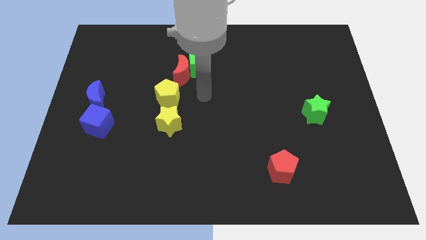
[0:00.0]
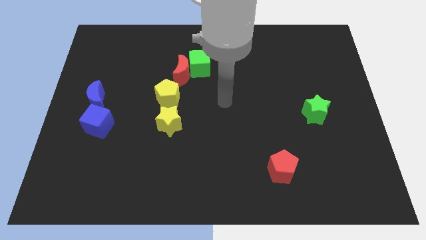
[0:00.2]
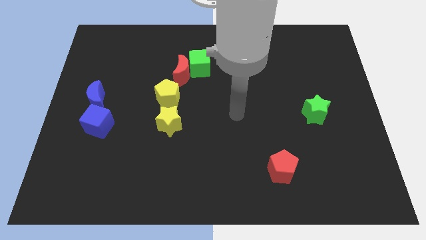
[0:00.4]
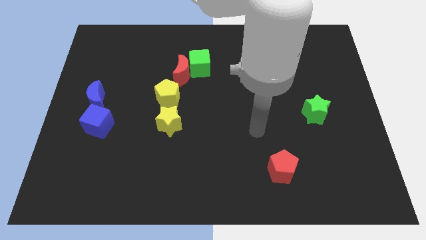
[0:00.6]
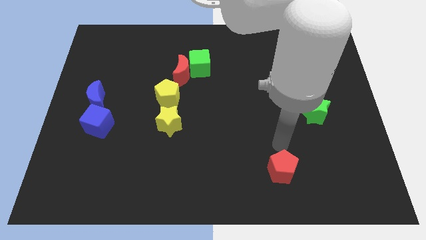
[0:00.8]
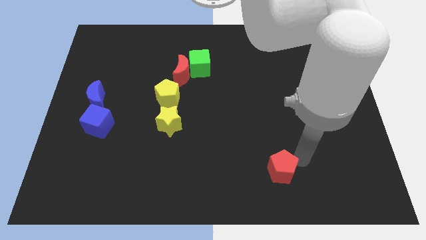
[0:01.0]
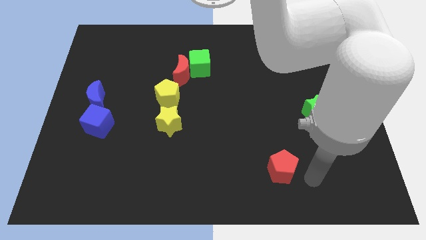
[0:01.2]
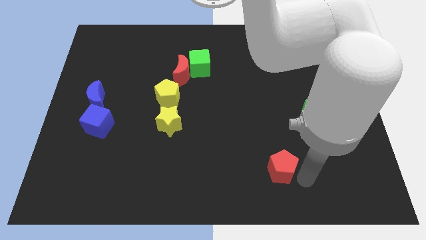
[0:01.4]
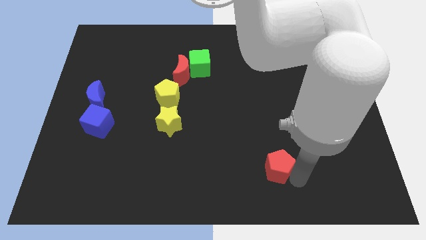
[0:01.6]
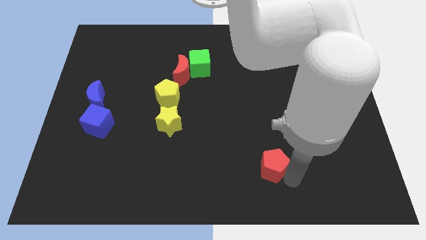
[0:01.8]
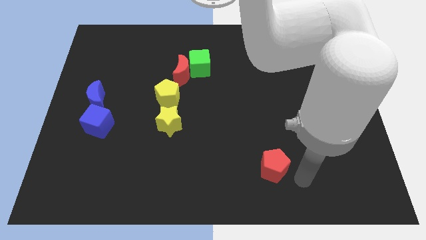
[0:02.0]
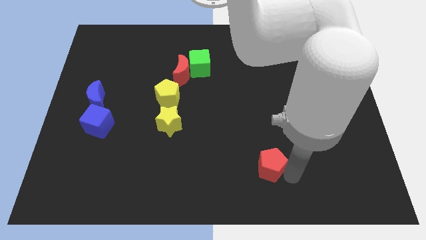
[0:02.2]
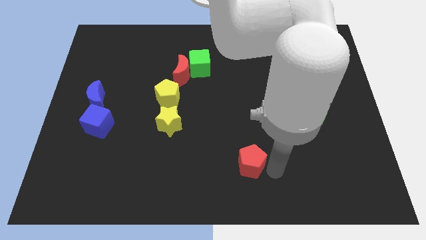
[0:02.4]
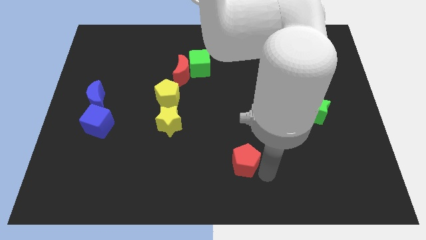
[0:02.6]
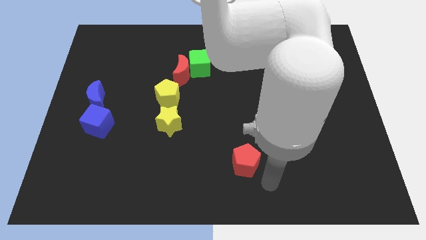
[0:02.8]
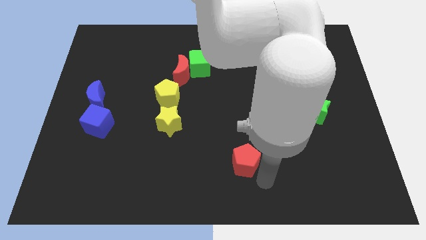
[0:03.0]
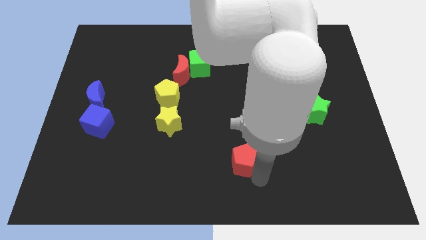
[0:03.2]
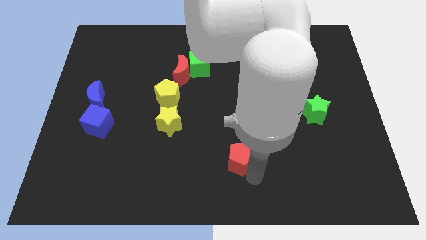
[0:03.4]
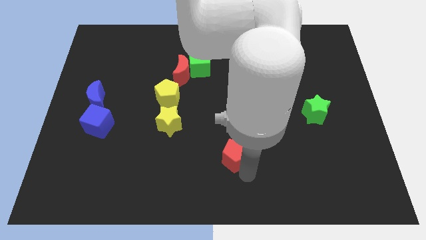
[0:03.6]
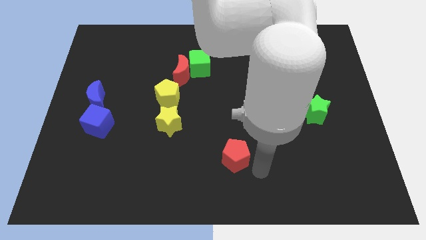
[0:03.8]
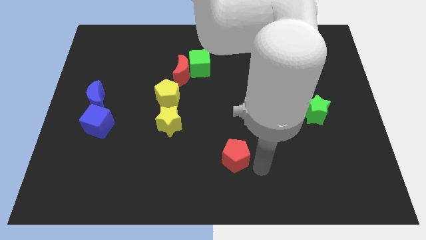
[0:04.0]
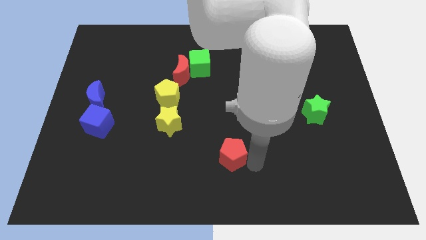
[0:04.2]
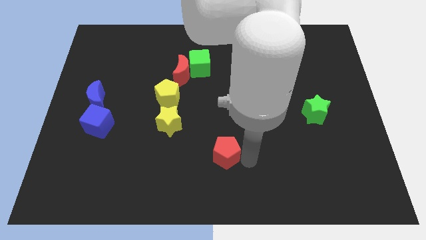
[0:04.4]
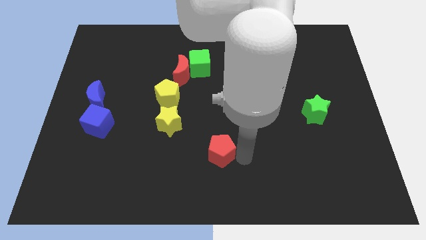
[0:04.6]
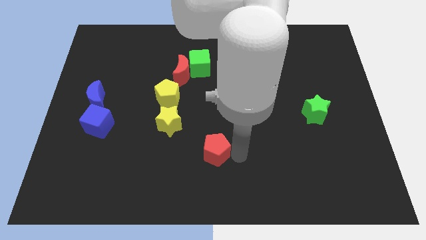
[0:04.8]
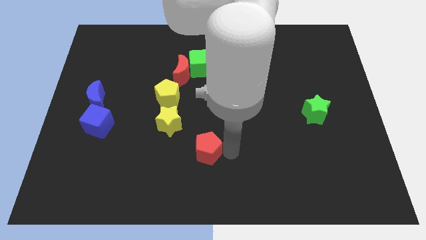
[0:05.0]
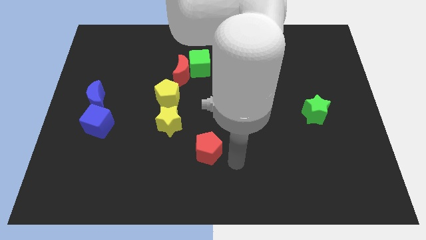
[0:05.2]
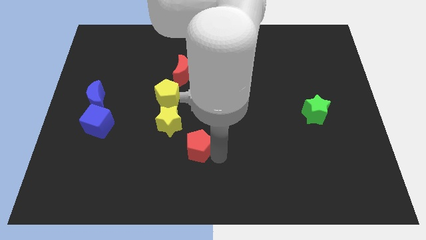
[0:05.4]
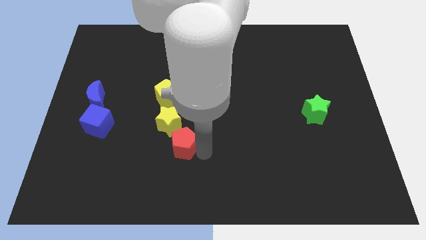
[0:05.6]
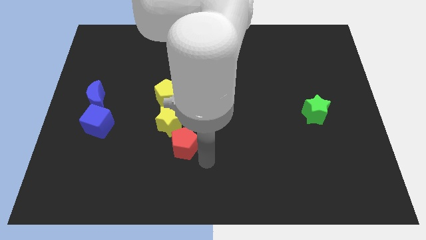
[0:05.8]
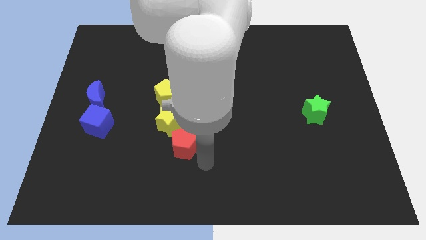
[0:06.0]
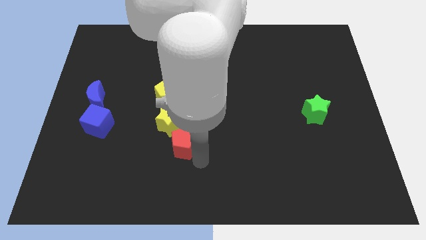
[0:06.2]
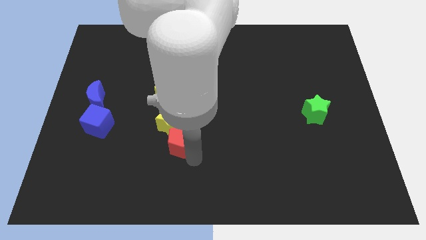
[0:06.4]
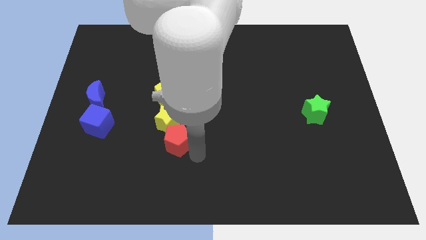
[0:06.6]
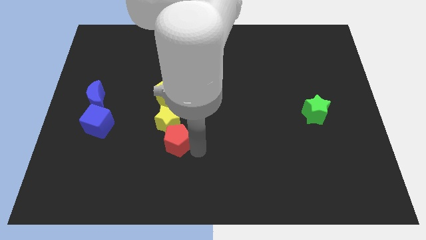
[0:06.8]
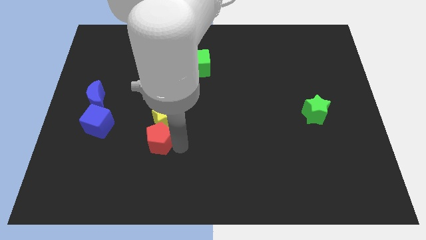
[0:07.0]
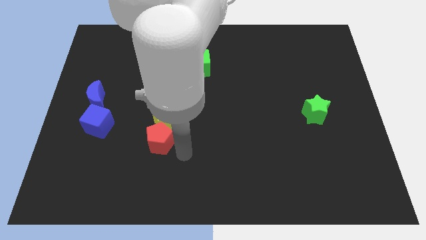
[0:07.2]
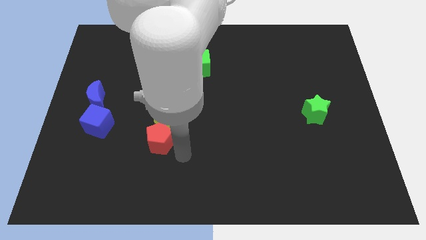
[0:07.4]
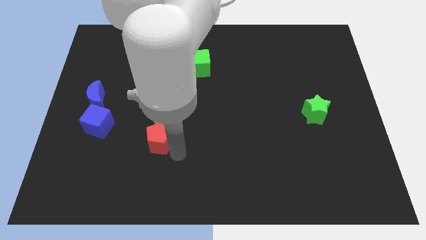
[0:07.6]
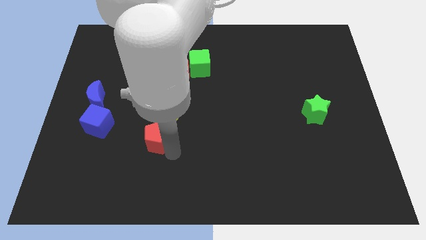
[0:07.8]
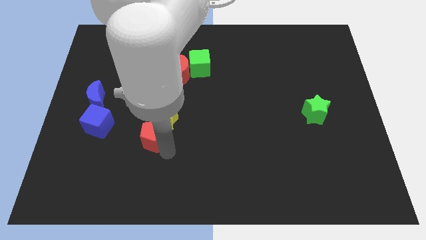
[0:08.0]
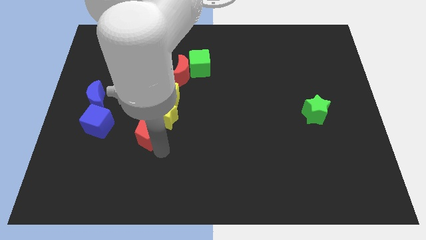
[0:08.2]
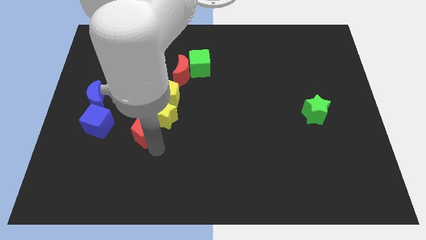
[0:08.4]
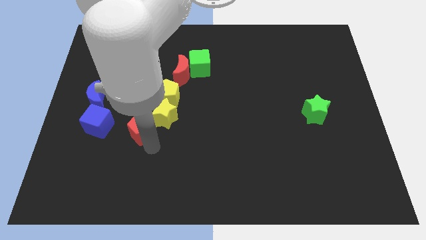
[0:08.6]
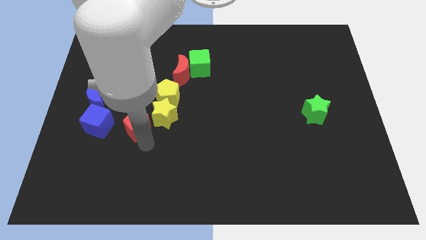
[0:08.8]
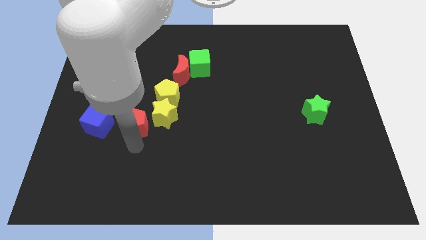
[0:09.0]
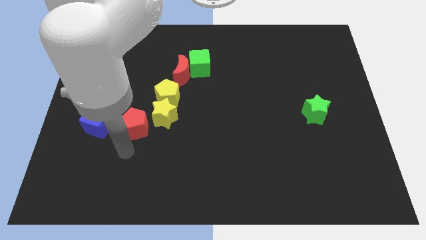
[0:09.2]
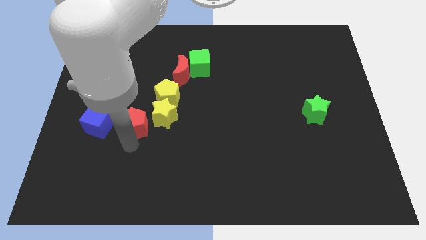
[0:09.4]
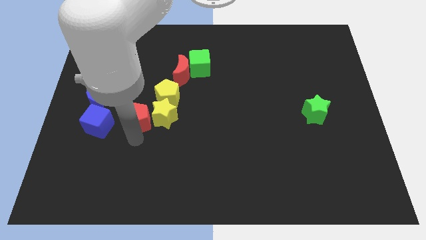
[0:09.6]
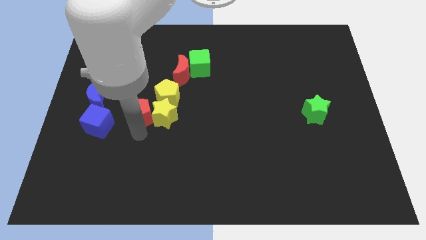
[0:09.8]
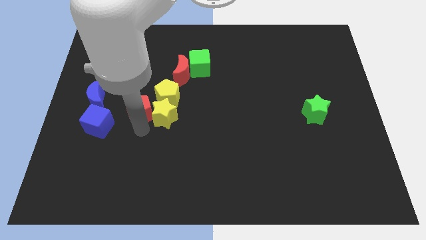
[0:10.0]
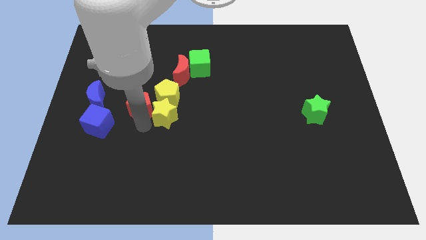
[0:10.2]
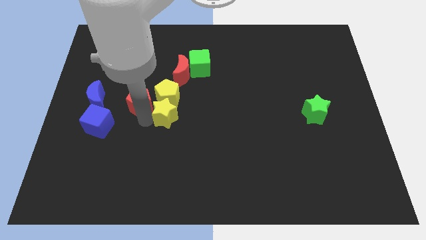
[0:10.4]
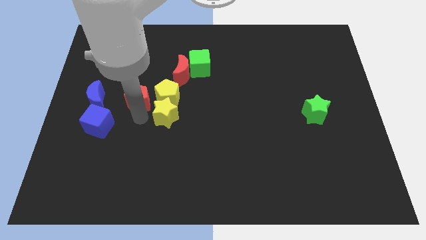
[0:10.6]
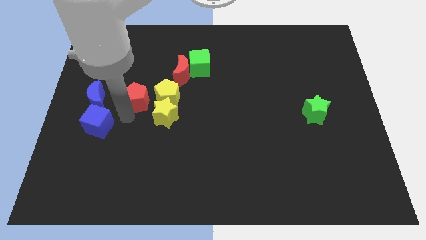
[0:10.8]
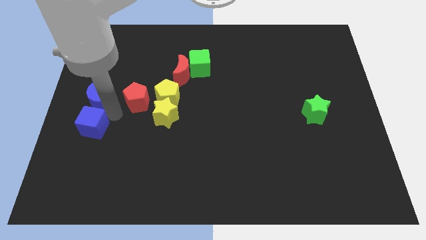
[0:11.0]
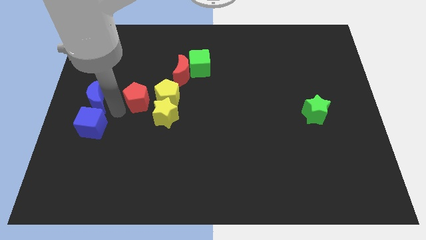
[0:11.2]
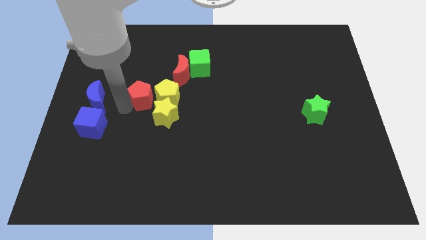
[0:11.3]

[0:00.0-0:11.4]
slide the red pentagon to the bottom left side of the red moon

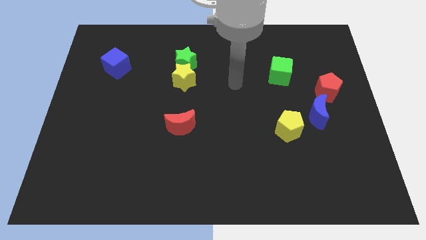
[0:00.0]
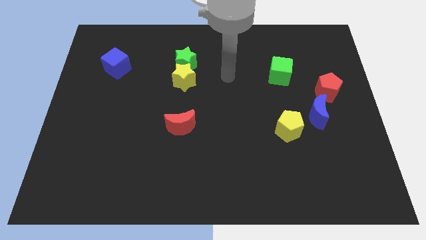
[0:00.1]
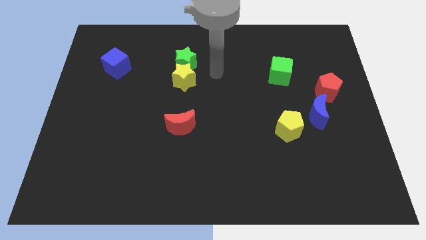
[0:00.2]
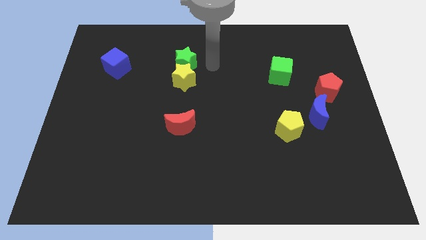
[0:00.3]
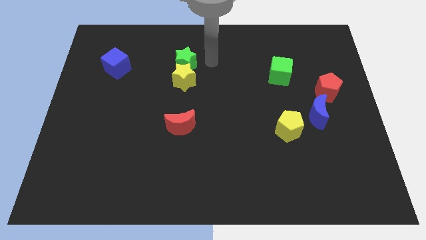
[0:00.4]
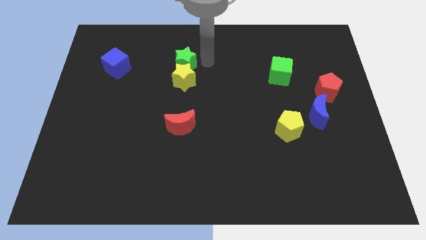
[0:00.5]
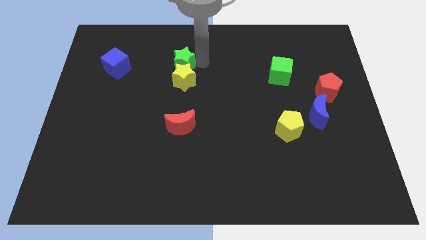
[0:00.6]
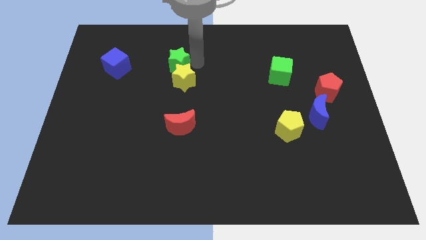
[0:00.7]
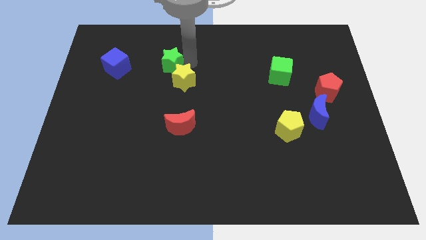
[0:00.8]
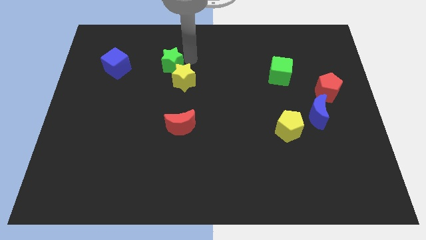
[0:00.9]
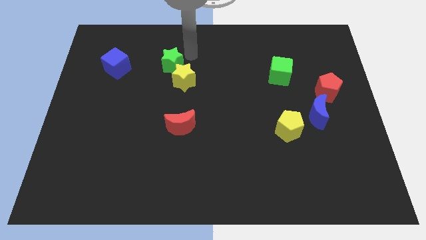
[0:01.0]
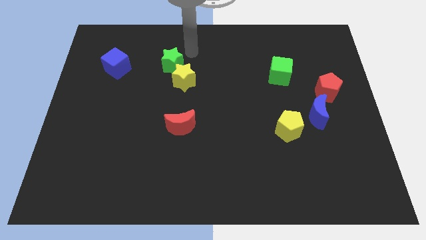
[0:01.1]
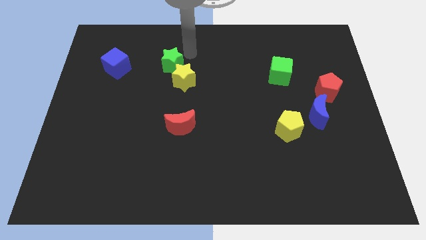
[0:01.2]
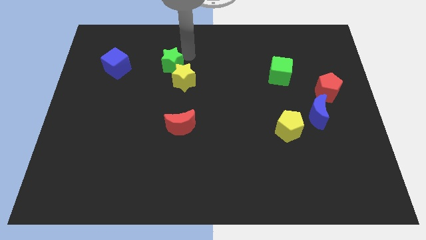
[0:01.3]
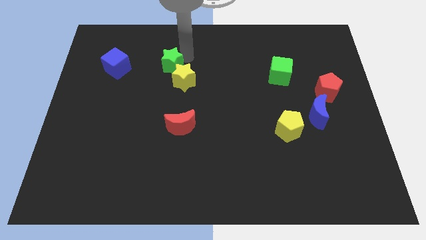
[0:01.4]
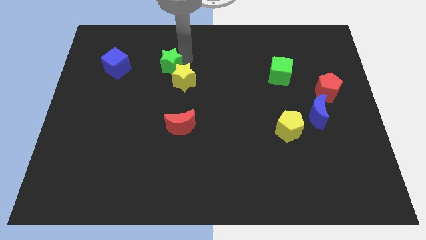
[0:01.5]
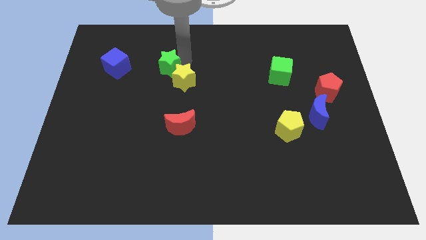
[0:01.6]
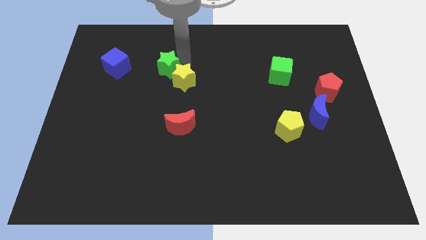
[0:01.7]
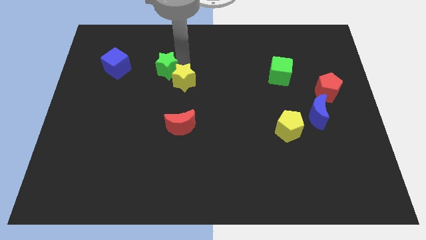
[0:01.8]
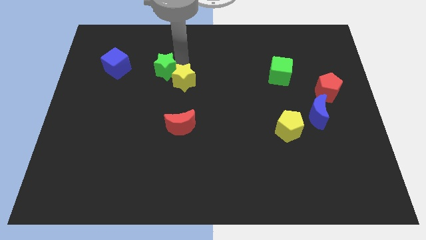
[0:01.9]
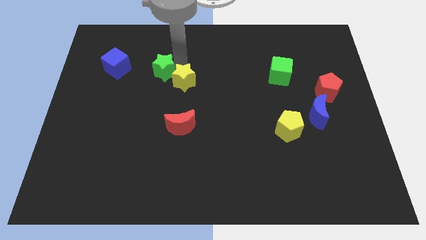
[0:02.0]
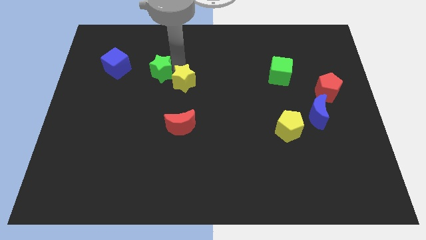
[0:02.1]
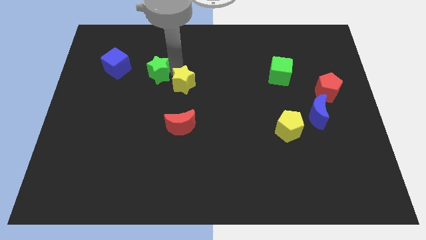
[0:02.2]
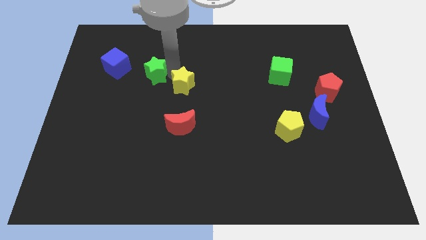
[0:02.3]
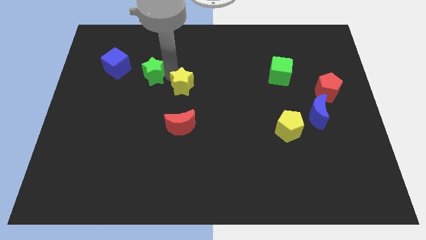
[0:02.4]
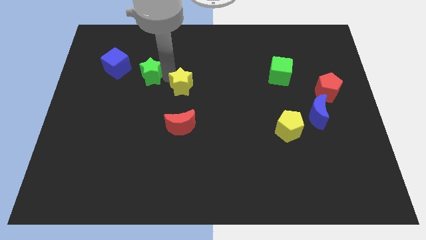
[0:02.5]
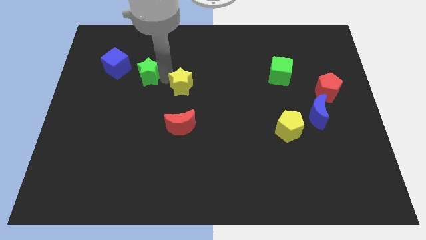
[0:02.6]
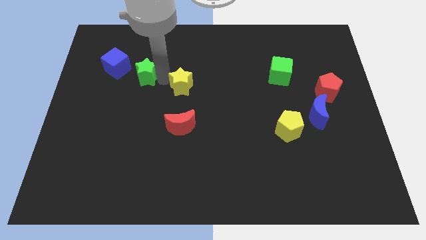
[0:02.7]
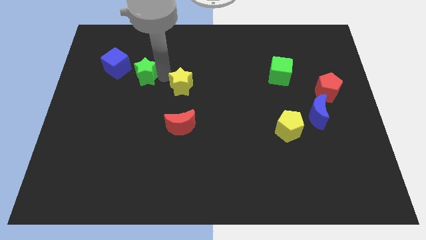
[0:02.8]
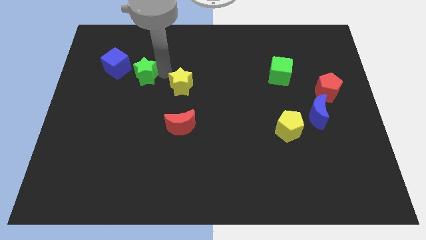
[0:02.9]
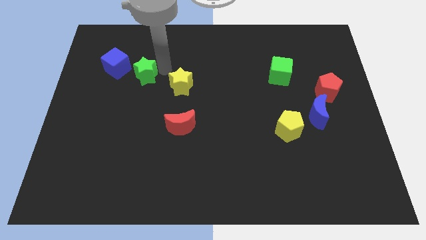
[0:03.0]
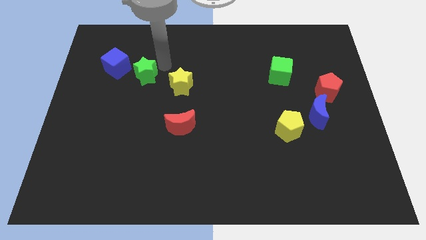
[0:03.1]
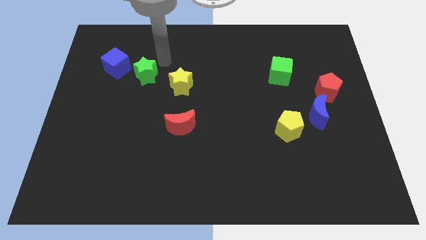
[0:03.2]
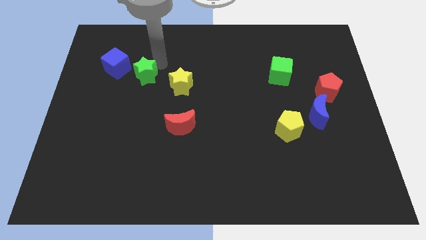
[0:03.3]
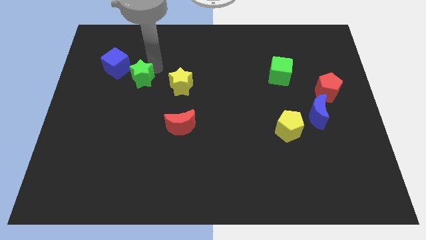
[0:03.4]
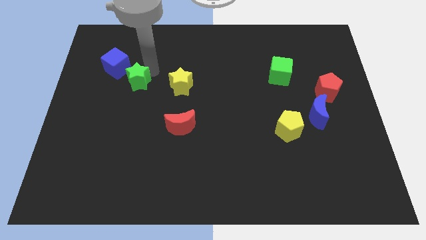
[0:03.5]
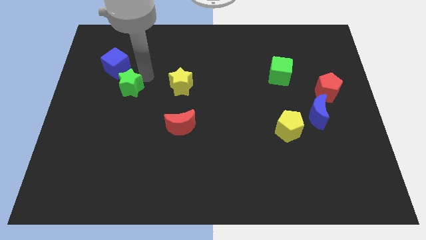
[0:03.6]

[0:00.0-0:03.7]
slide the green star to the bottom of the blue cube
